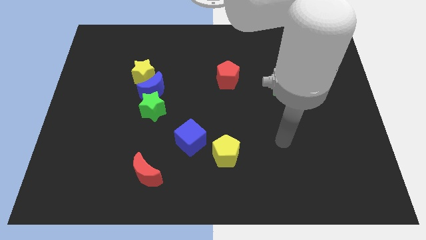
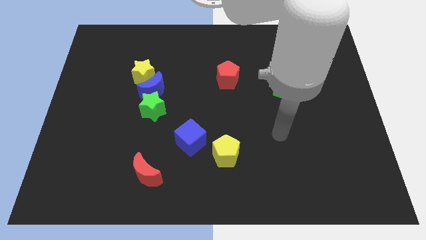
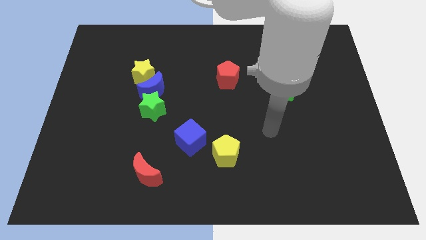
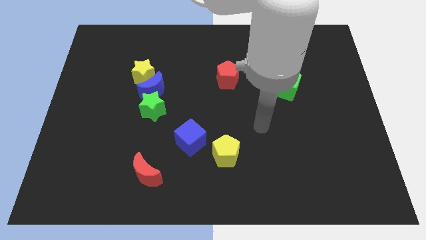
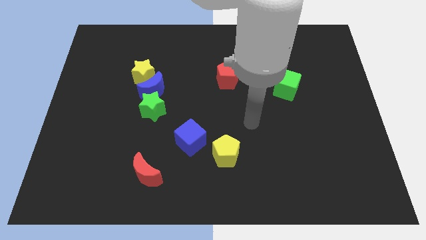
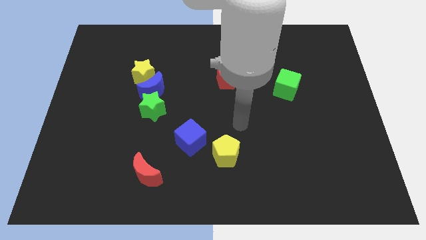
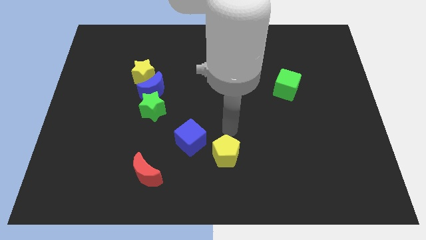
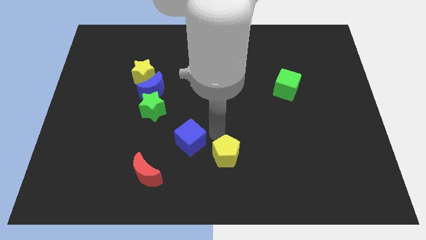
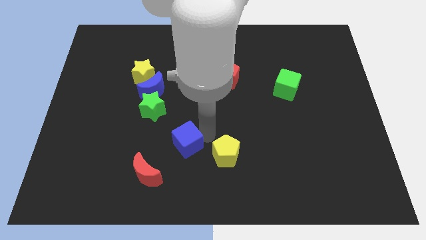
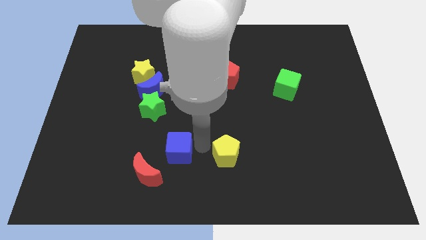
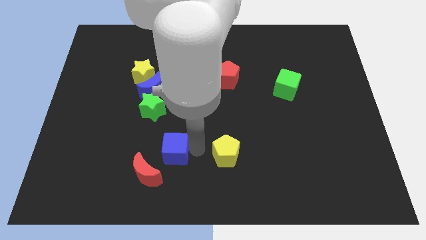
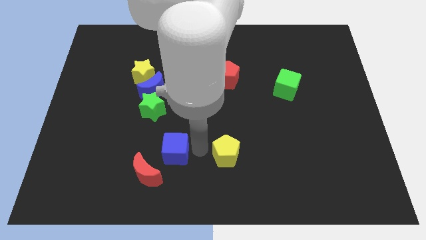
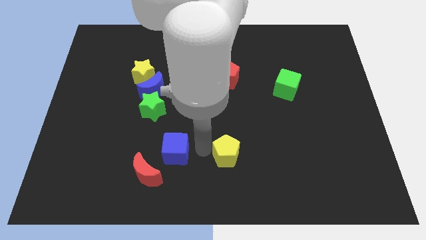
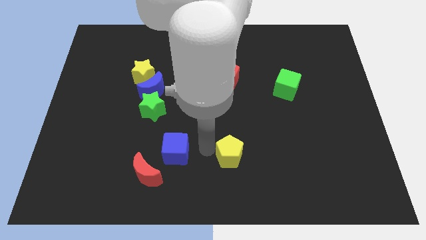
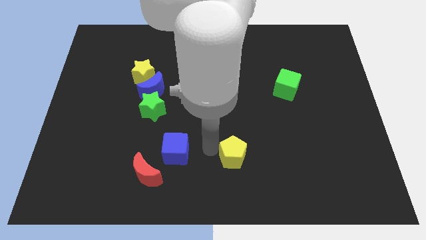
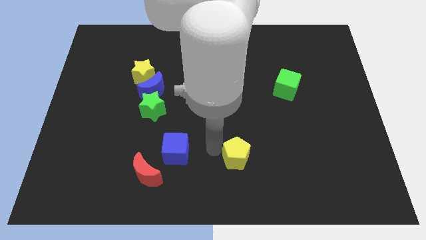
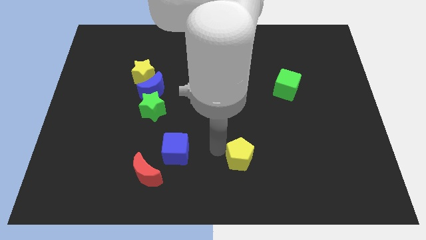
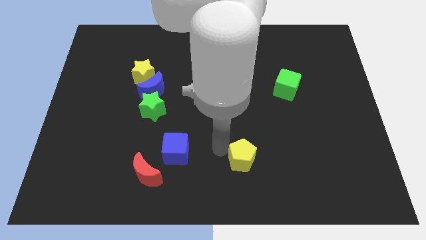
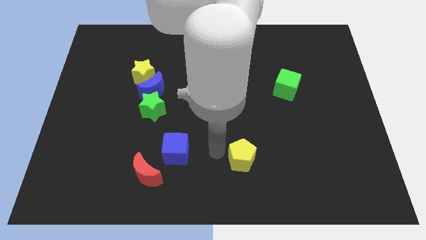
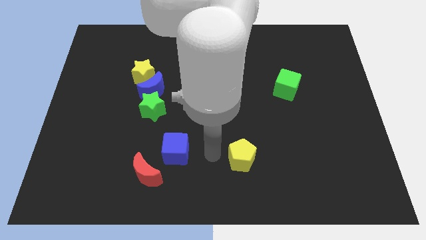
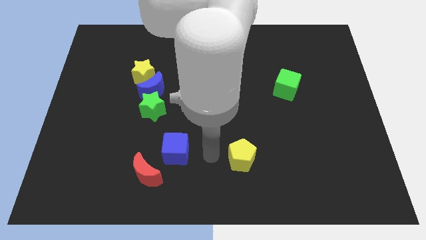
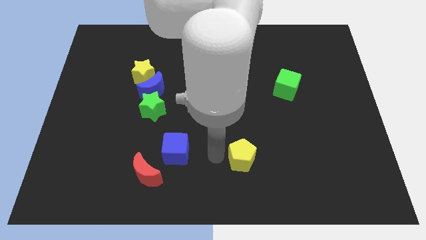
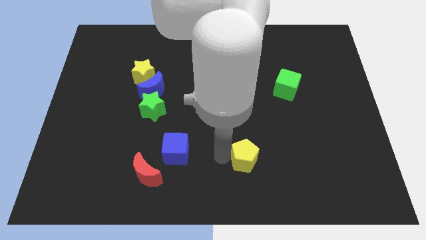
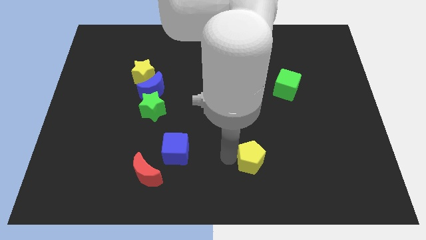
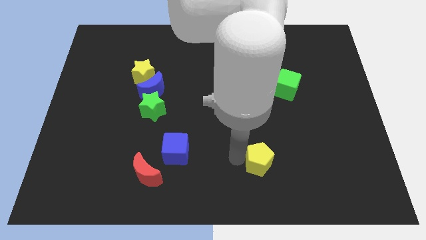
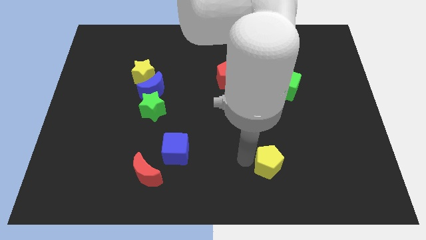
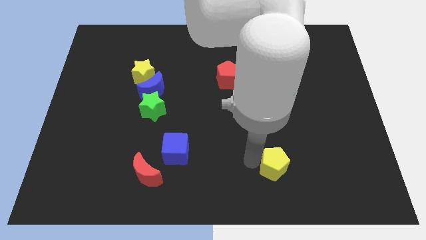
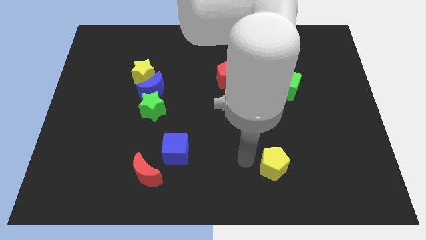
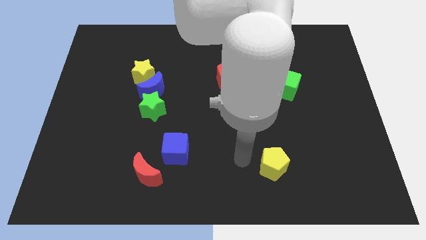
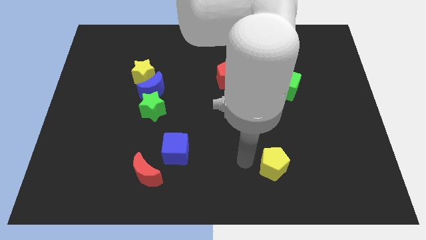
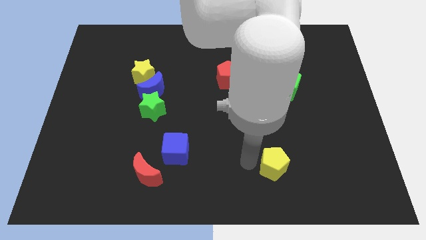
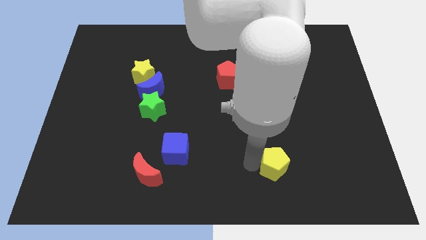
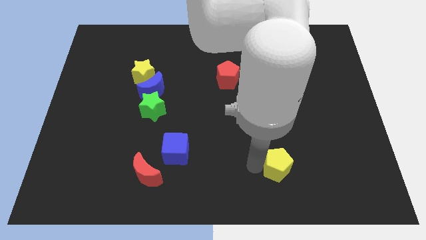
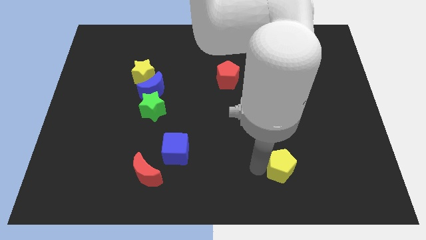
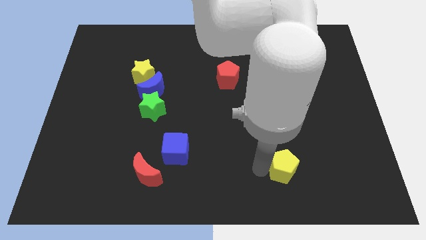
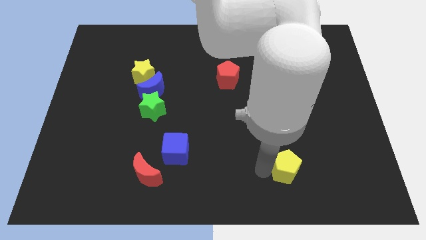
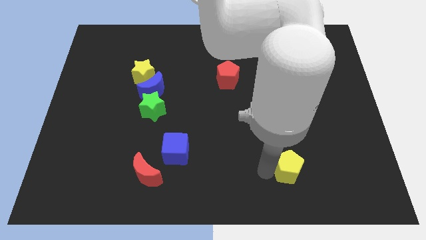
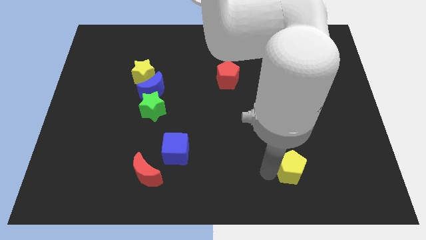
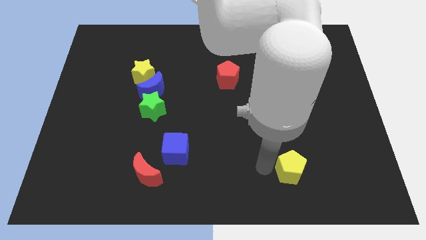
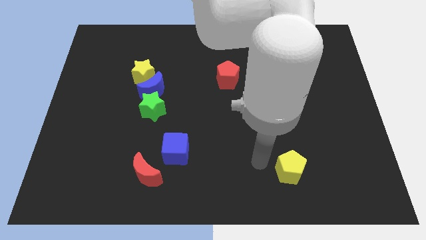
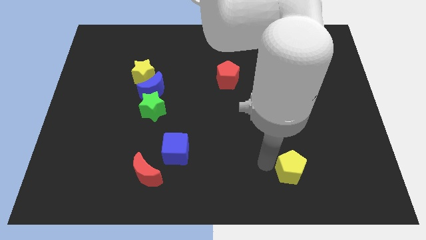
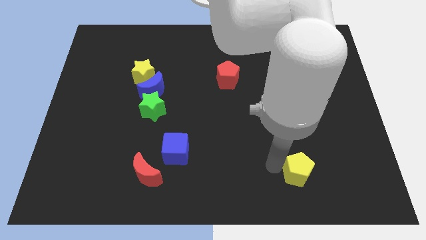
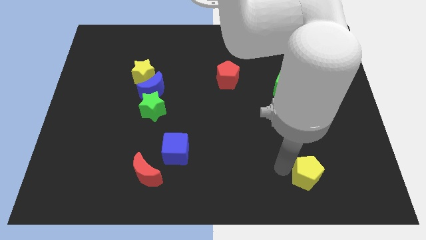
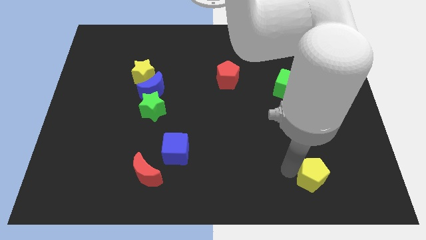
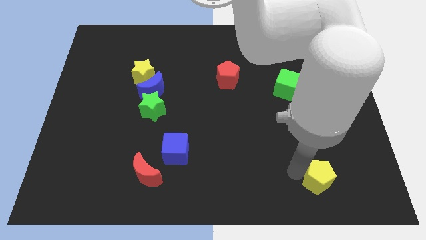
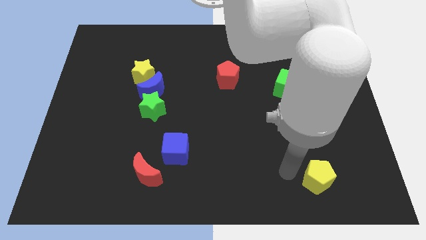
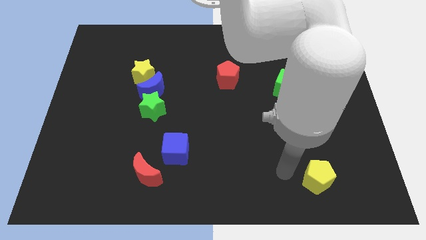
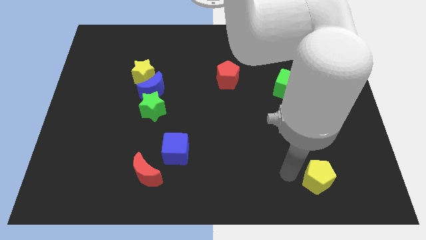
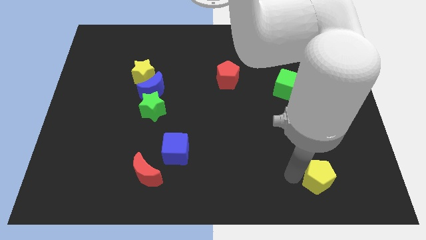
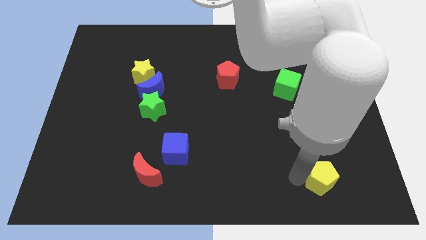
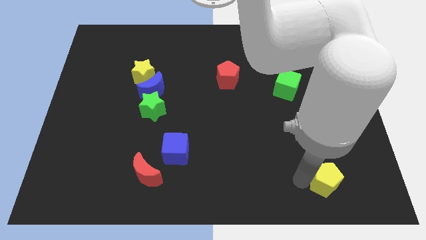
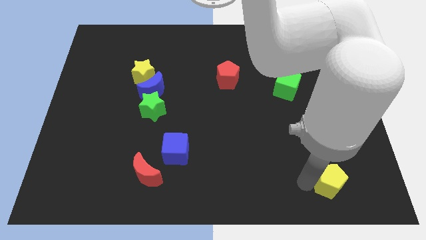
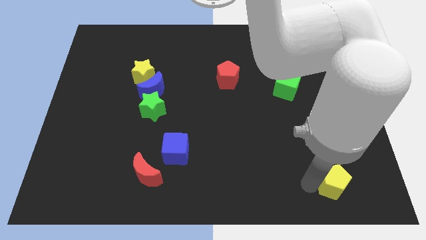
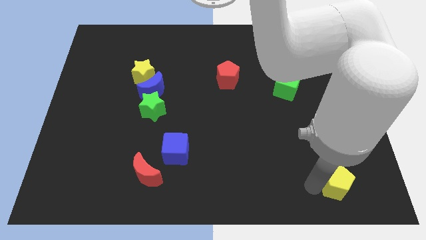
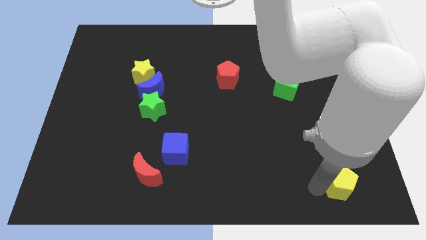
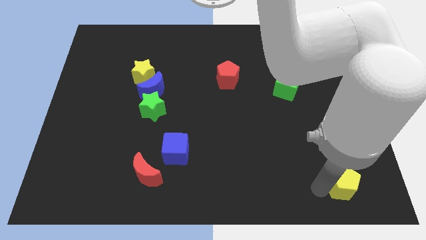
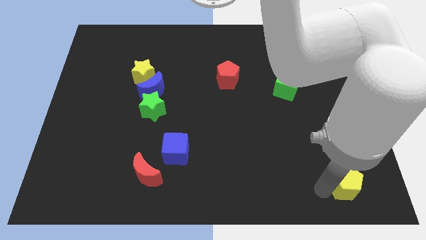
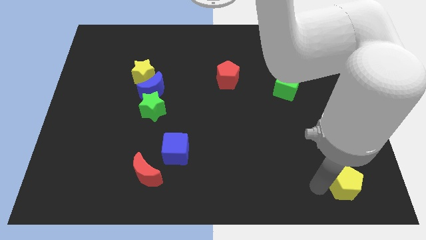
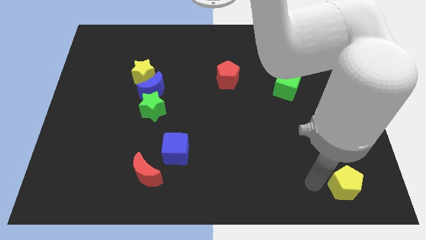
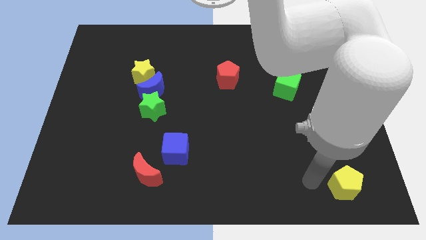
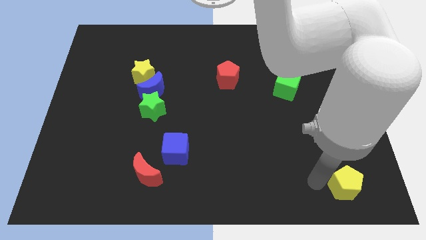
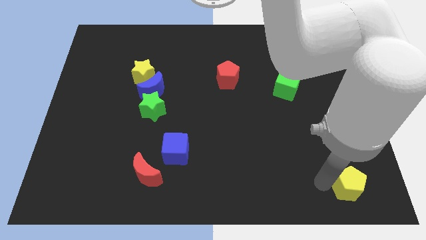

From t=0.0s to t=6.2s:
push the yellow pentagon to the bottom right corner

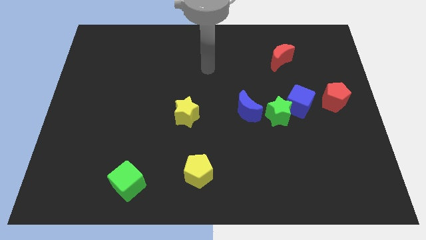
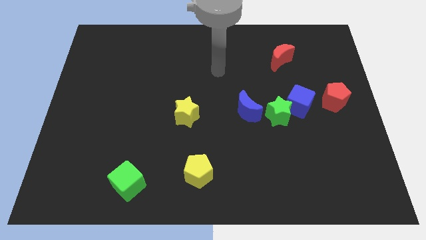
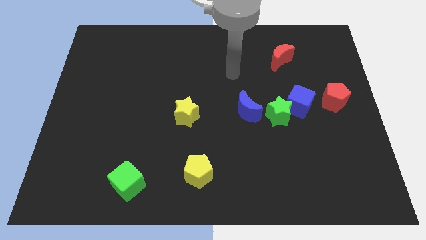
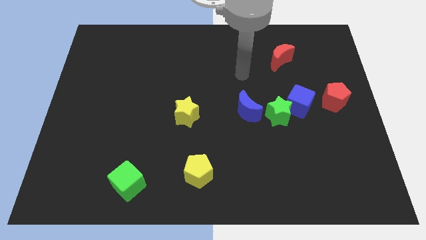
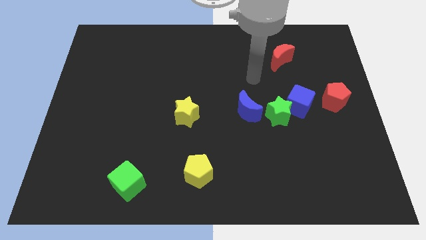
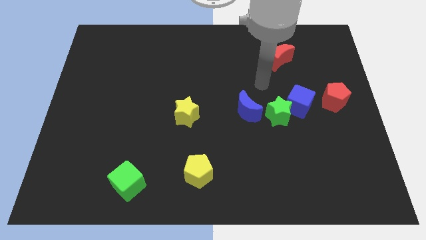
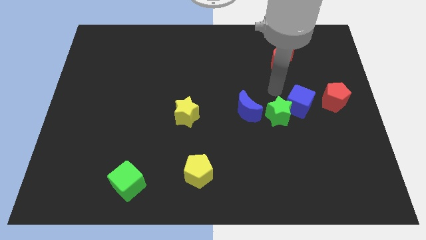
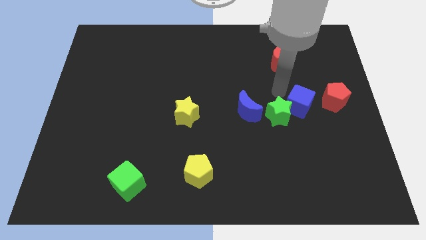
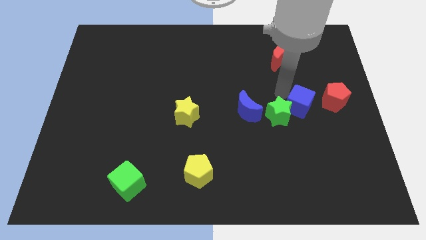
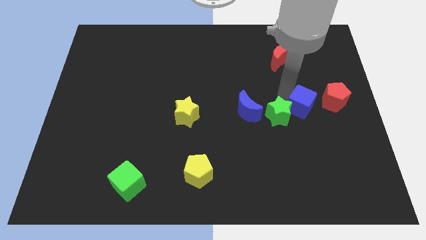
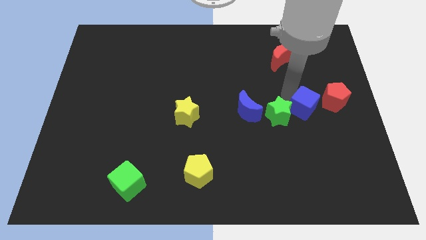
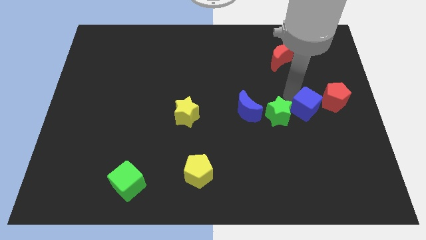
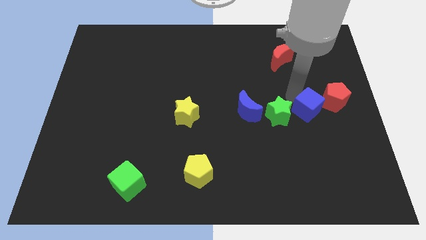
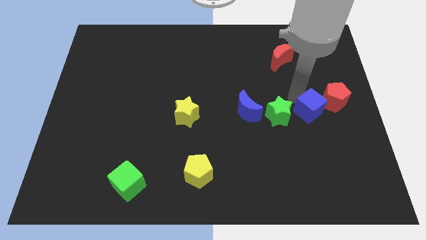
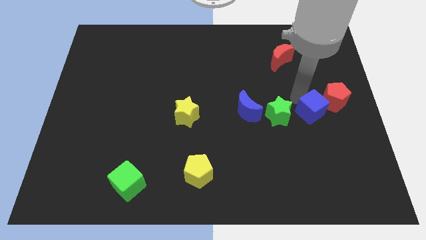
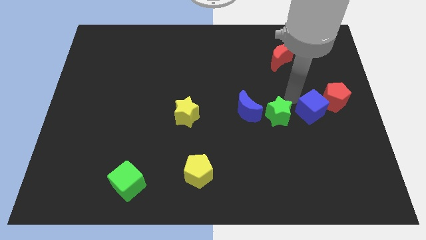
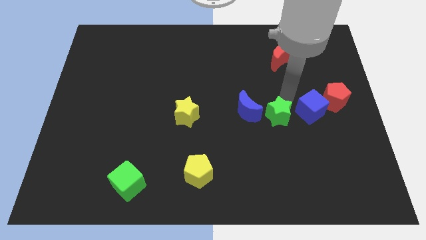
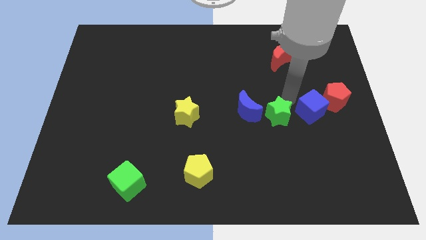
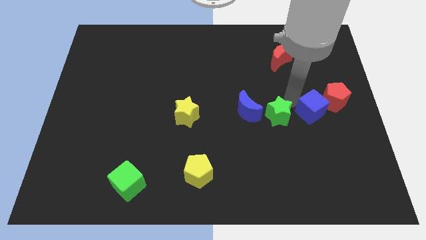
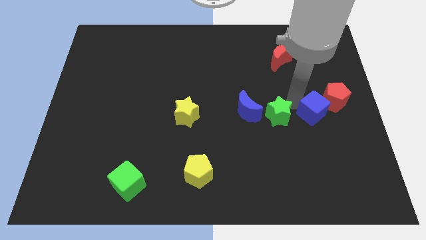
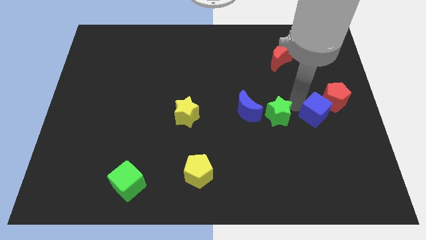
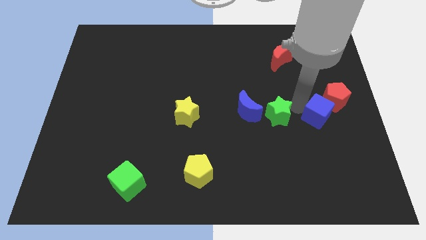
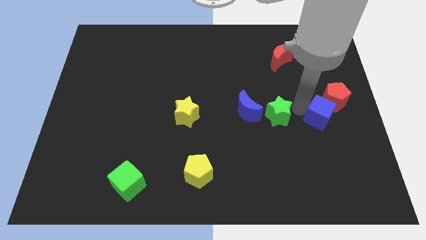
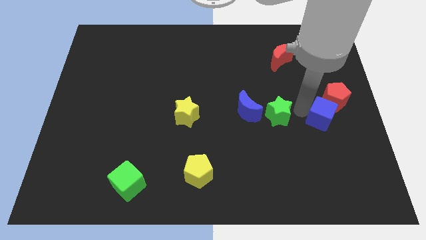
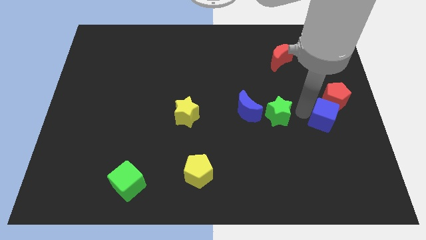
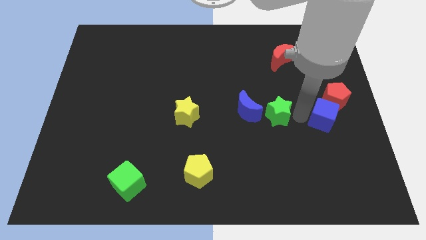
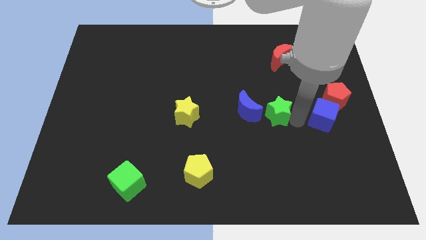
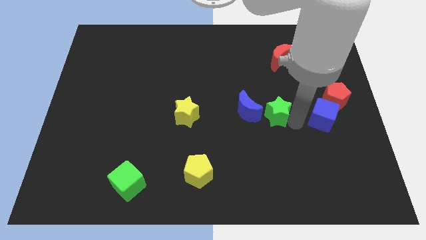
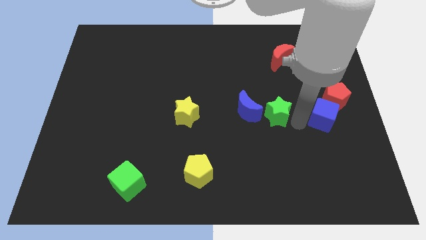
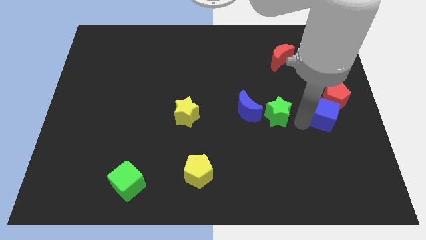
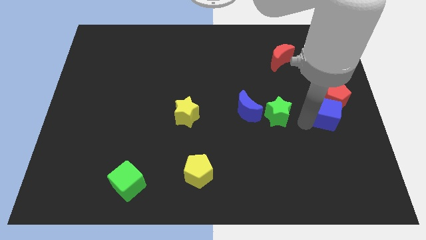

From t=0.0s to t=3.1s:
slide the blue cube to the center right
